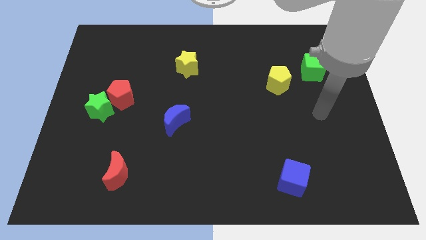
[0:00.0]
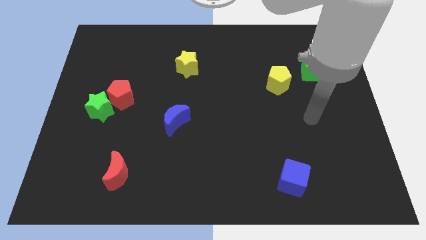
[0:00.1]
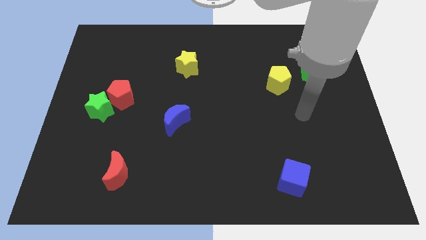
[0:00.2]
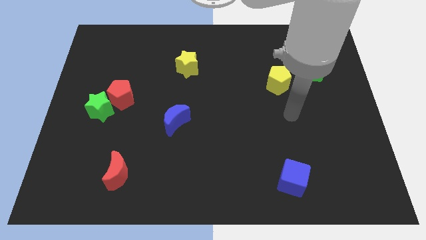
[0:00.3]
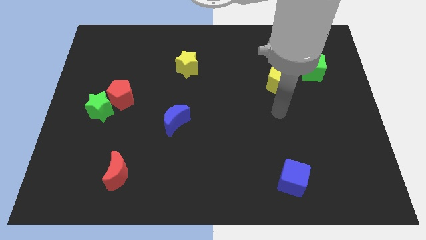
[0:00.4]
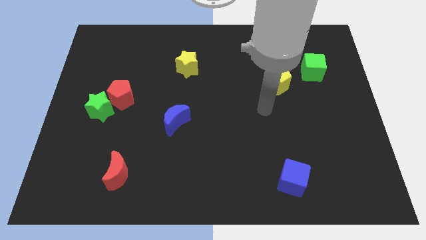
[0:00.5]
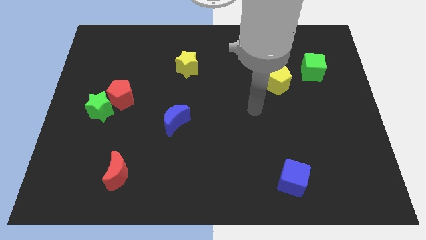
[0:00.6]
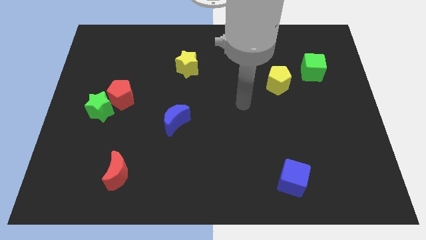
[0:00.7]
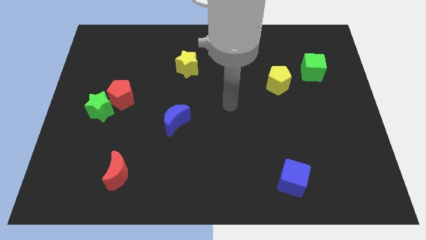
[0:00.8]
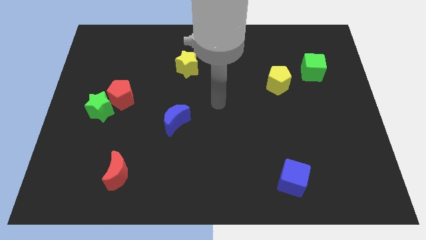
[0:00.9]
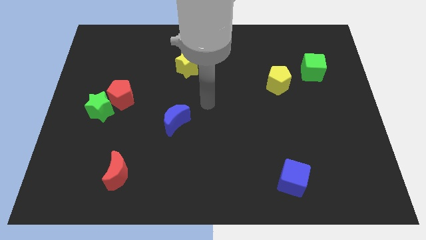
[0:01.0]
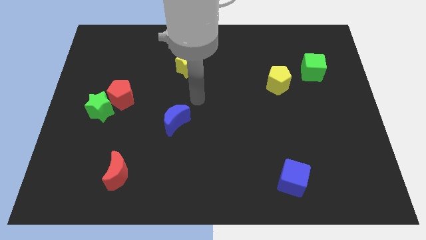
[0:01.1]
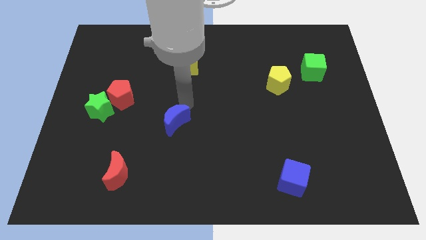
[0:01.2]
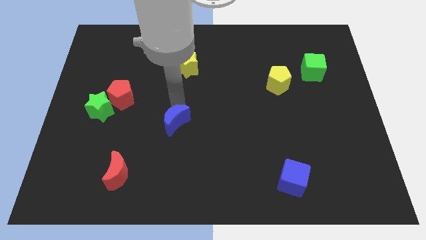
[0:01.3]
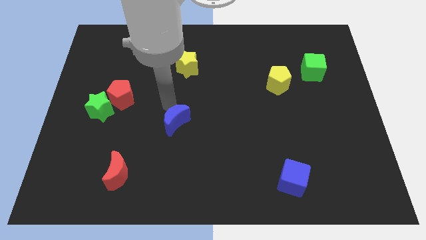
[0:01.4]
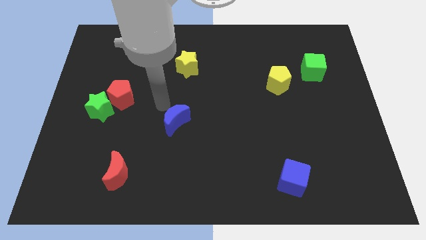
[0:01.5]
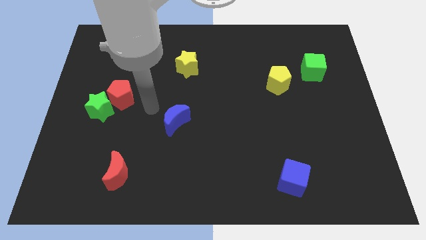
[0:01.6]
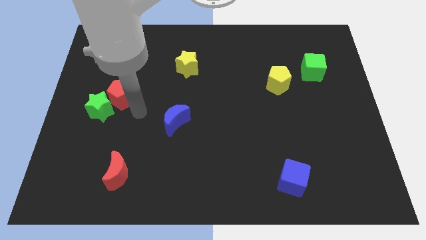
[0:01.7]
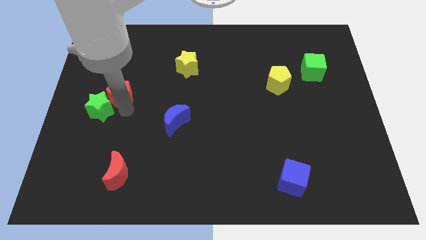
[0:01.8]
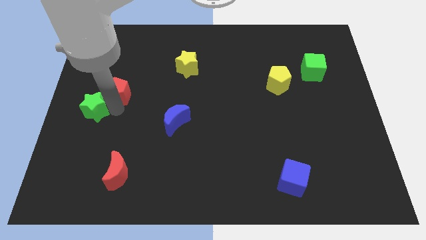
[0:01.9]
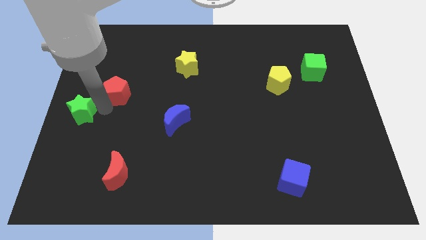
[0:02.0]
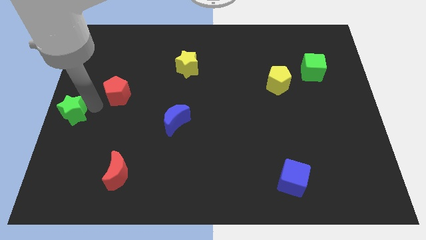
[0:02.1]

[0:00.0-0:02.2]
separate the red pentagon from the green star

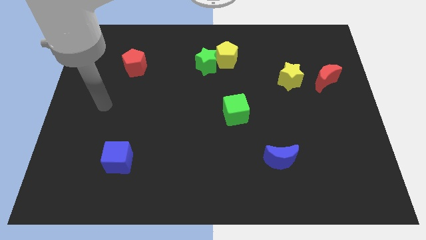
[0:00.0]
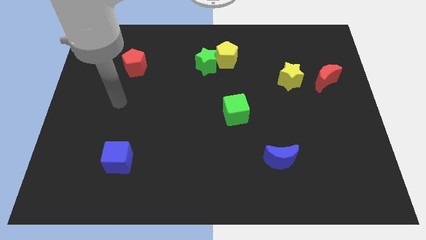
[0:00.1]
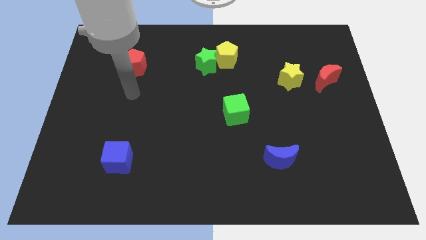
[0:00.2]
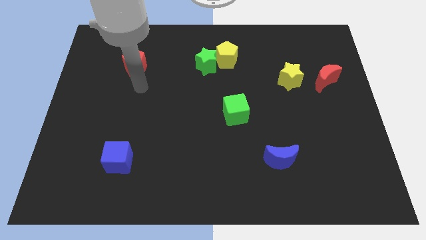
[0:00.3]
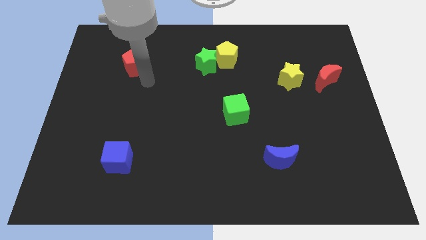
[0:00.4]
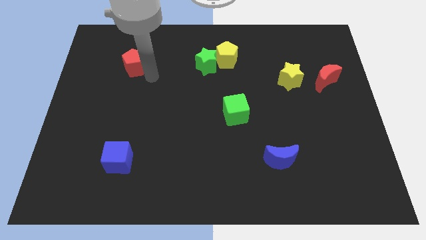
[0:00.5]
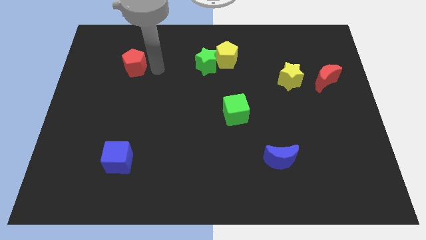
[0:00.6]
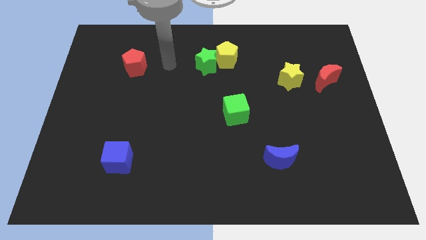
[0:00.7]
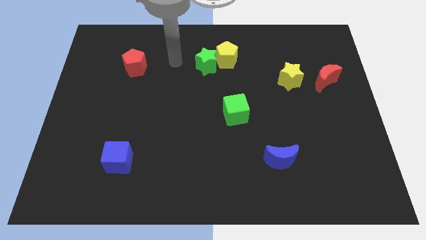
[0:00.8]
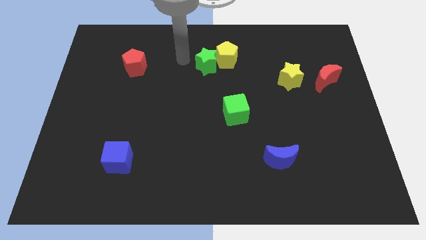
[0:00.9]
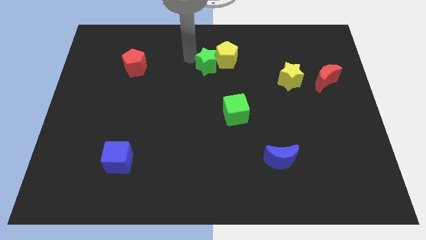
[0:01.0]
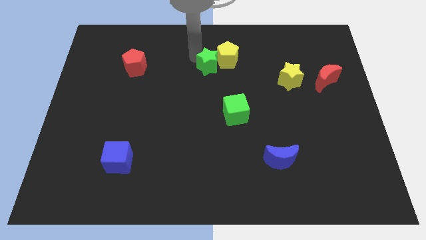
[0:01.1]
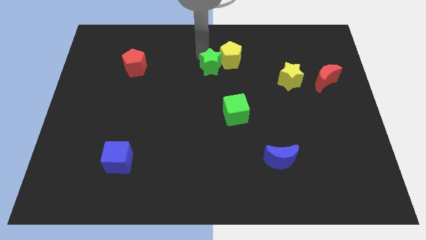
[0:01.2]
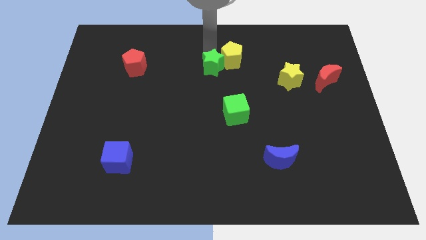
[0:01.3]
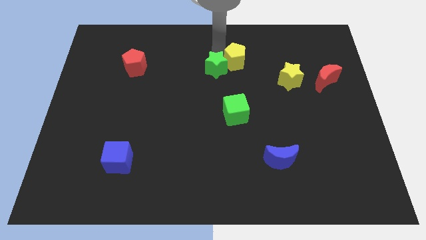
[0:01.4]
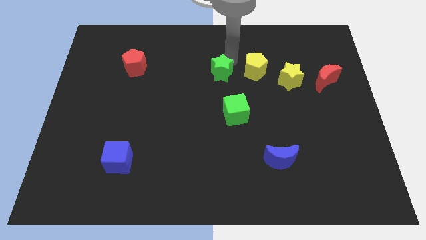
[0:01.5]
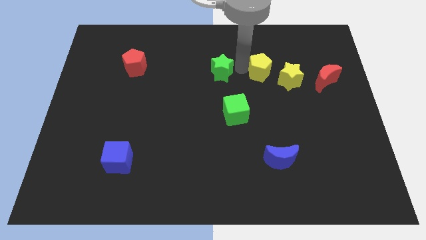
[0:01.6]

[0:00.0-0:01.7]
move the green star away from the yellow pentagon

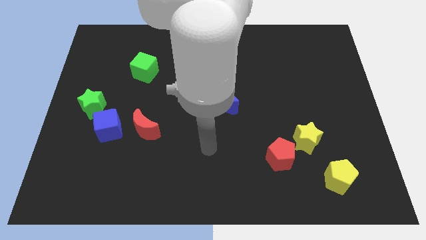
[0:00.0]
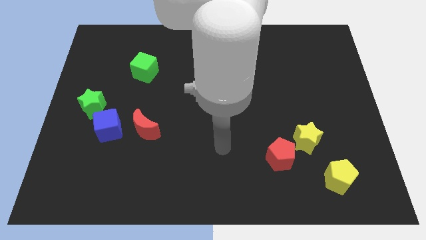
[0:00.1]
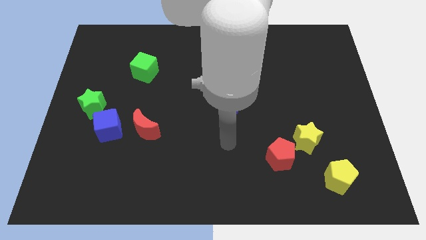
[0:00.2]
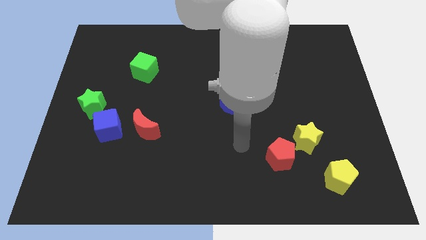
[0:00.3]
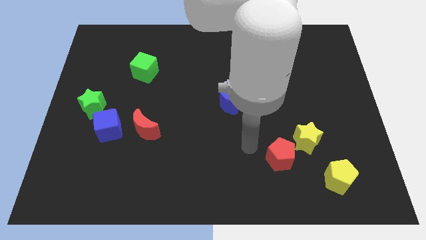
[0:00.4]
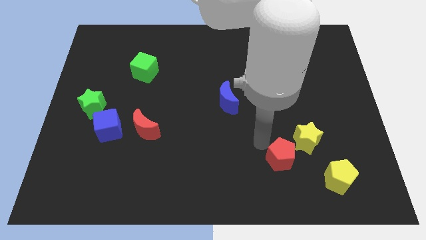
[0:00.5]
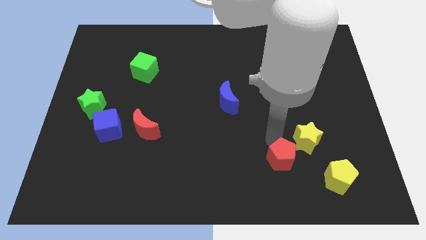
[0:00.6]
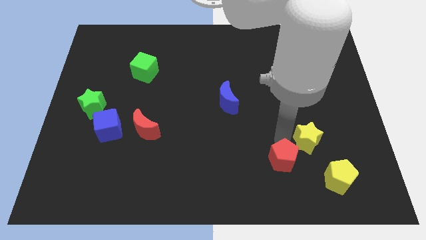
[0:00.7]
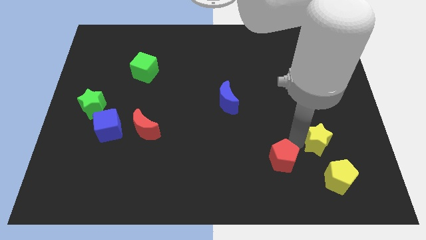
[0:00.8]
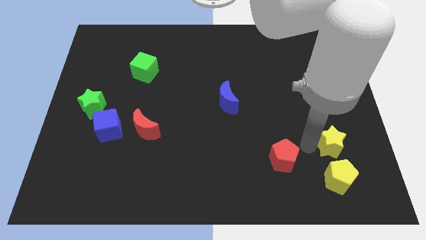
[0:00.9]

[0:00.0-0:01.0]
pull the red pentagon apart from the yellow star

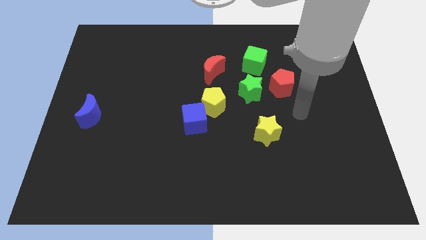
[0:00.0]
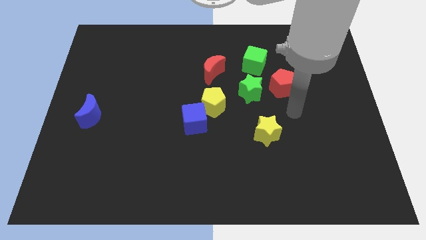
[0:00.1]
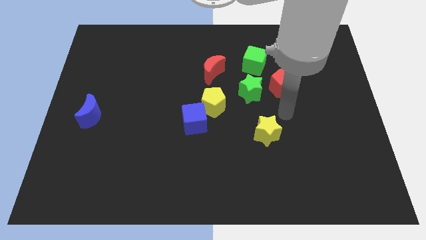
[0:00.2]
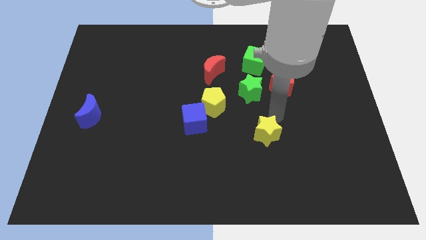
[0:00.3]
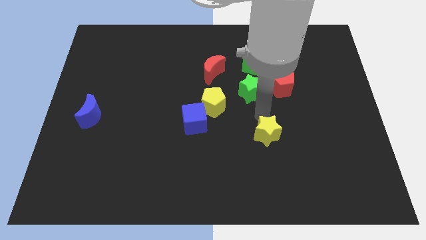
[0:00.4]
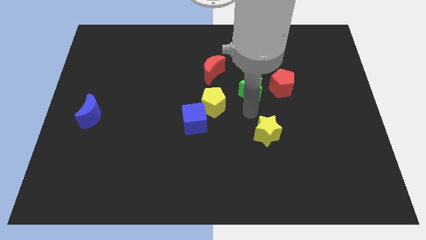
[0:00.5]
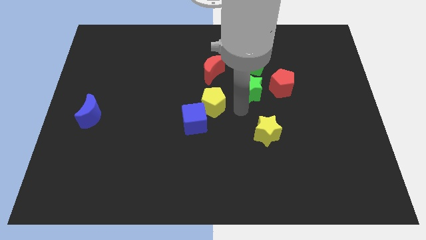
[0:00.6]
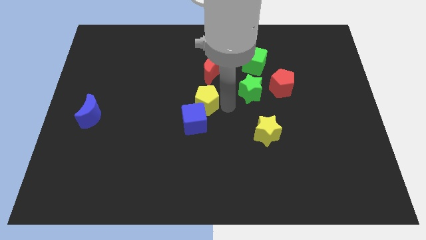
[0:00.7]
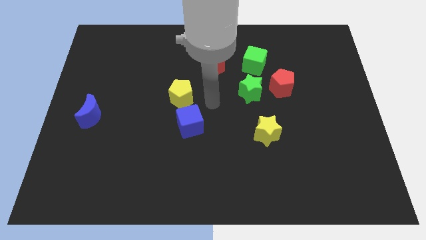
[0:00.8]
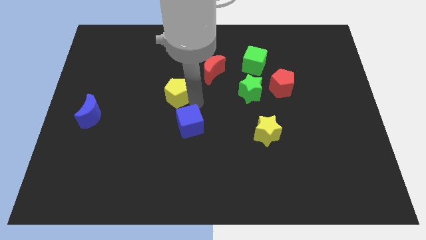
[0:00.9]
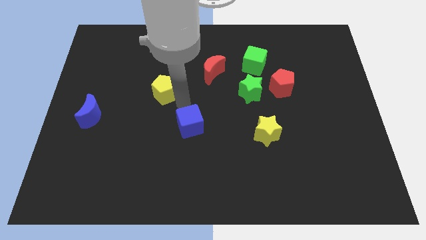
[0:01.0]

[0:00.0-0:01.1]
pull the blue cube apart from the yellow pentagon

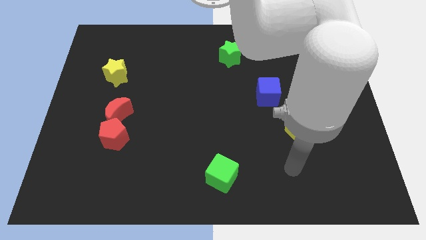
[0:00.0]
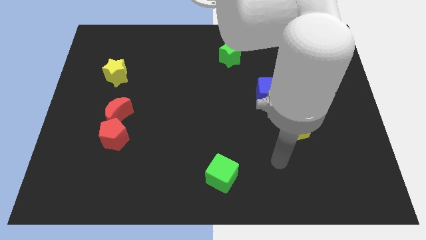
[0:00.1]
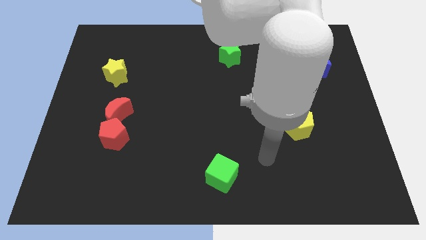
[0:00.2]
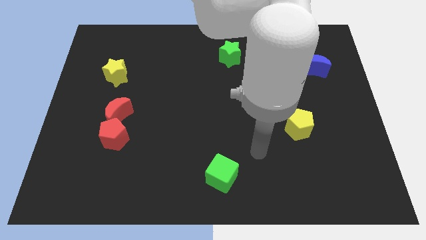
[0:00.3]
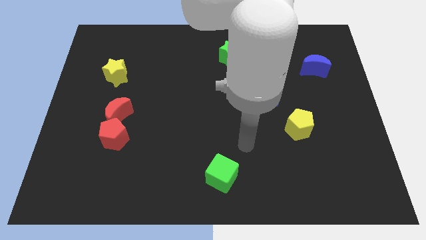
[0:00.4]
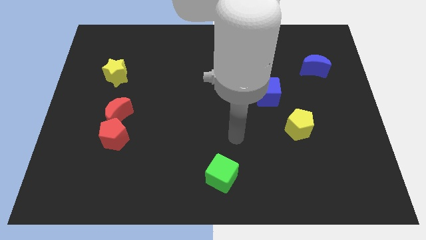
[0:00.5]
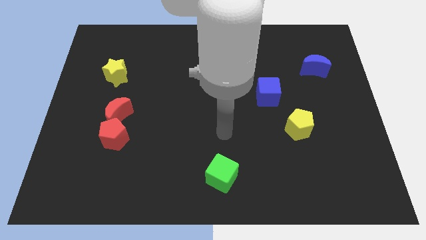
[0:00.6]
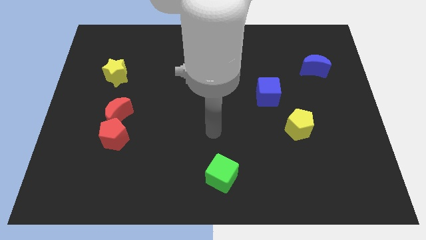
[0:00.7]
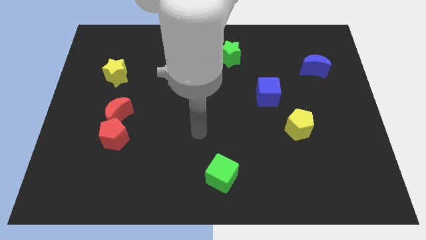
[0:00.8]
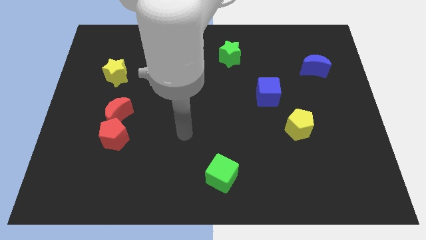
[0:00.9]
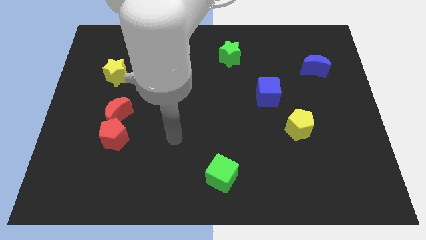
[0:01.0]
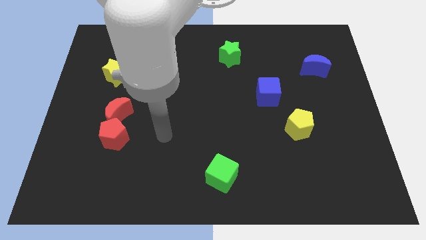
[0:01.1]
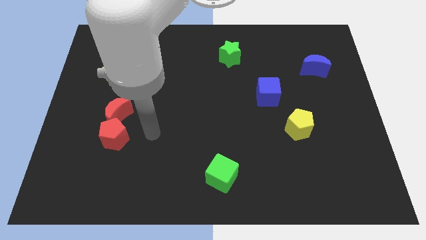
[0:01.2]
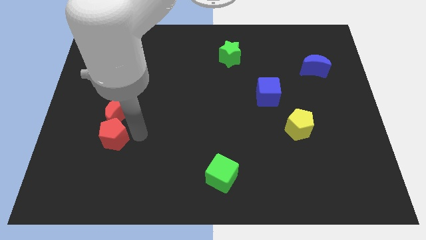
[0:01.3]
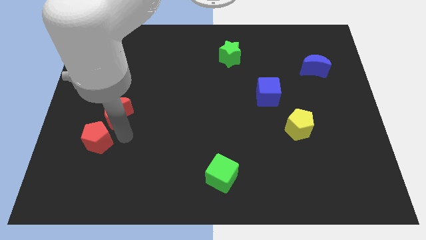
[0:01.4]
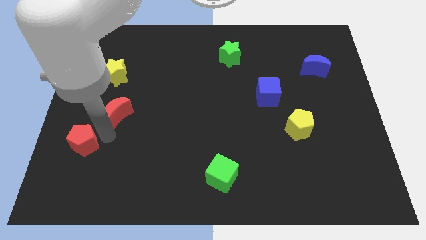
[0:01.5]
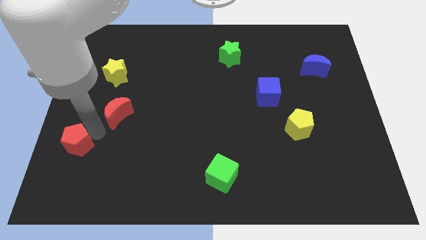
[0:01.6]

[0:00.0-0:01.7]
move the red moon away from the red pentagon

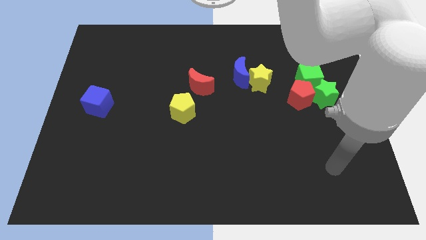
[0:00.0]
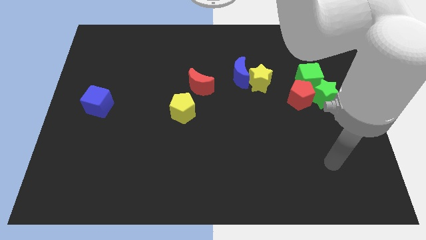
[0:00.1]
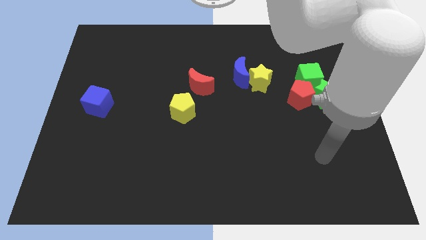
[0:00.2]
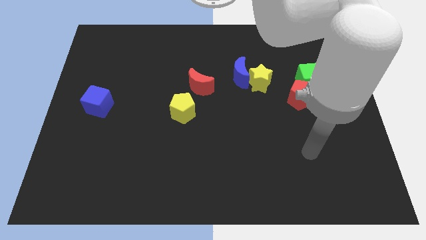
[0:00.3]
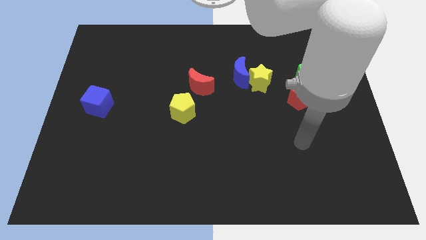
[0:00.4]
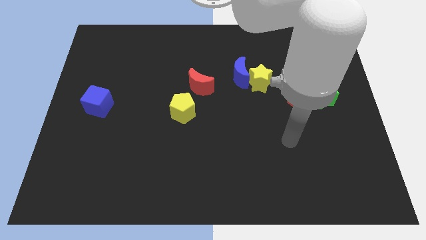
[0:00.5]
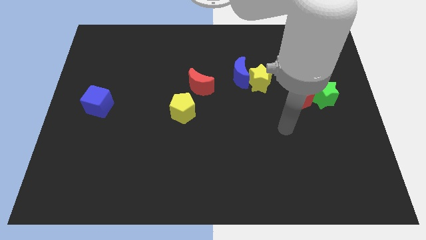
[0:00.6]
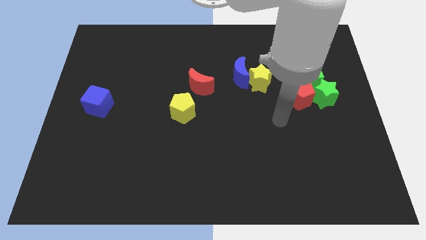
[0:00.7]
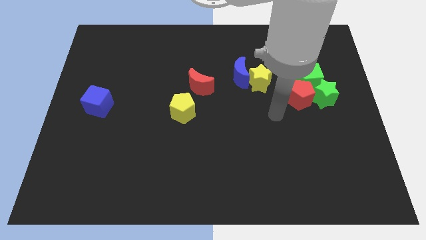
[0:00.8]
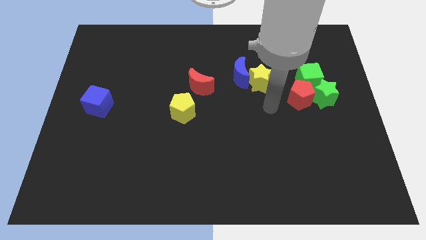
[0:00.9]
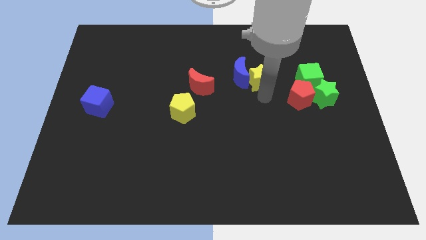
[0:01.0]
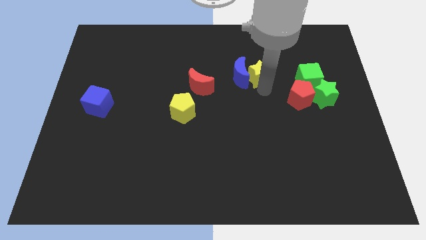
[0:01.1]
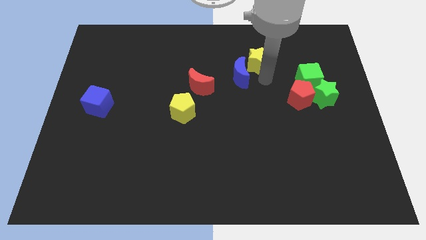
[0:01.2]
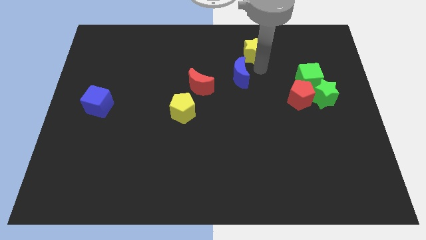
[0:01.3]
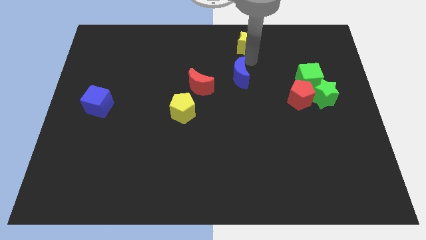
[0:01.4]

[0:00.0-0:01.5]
move the blue moon away from the yellow star

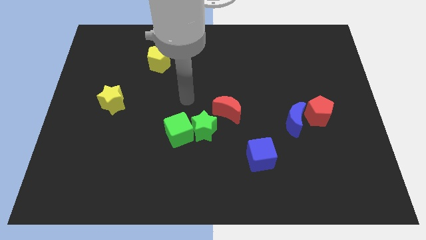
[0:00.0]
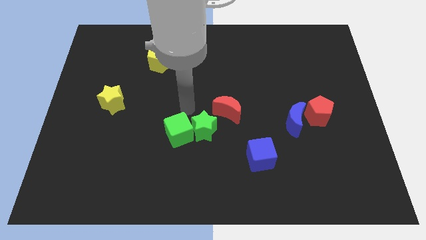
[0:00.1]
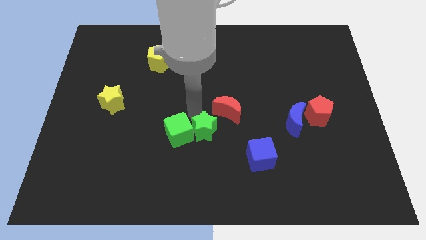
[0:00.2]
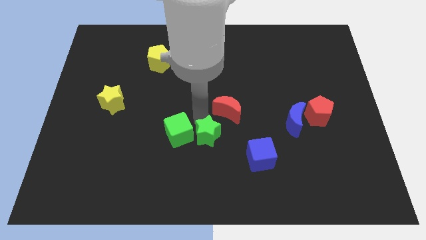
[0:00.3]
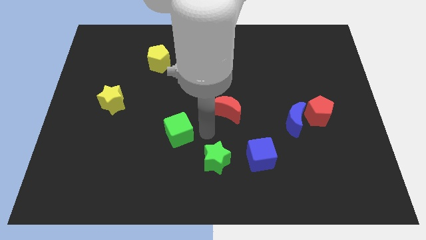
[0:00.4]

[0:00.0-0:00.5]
pull the green cube apart from the green star
